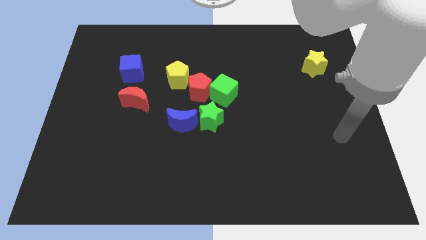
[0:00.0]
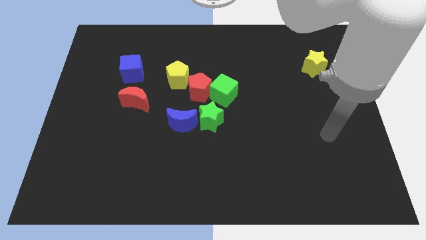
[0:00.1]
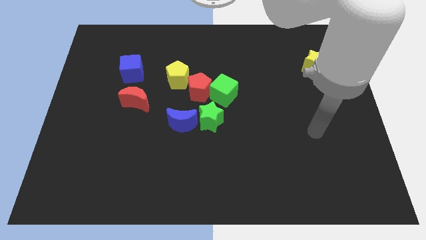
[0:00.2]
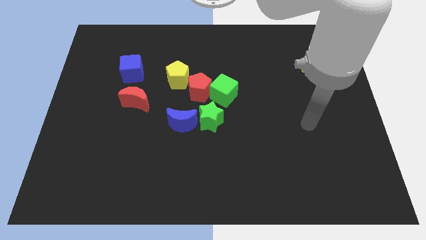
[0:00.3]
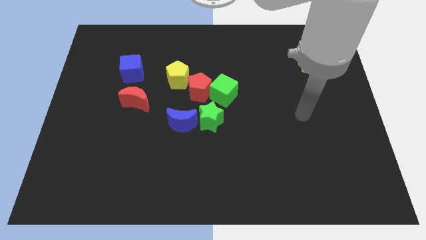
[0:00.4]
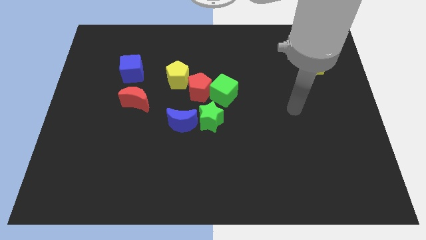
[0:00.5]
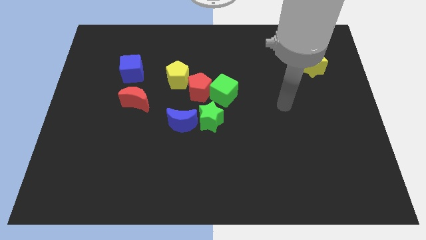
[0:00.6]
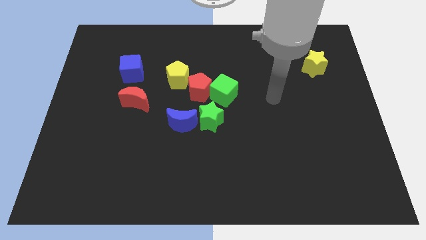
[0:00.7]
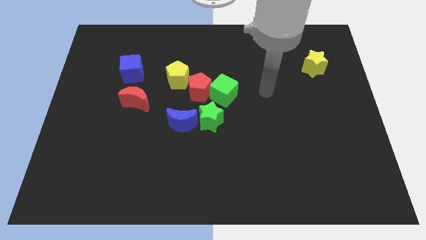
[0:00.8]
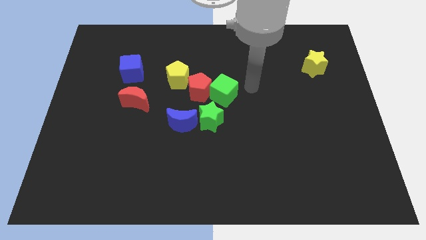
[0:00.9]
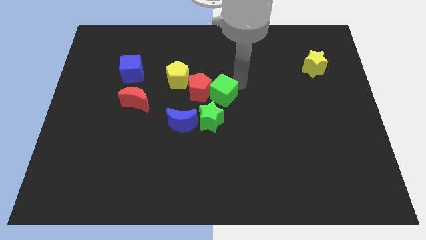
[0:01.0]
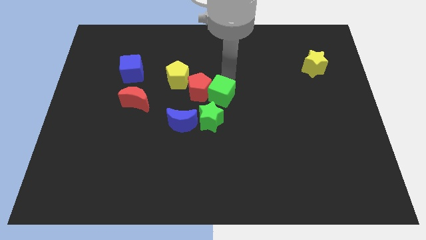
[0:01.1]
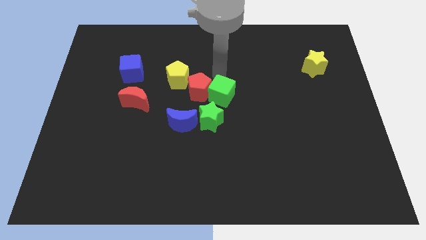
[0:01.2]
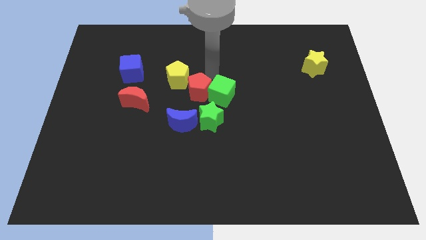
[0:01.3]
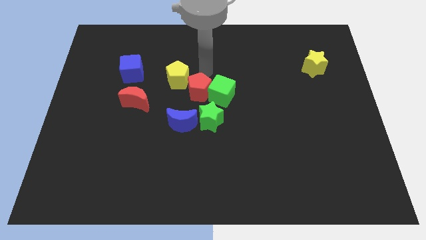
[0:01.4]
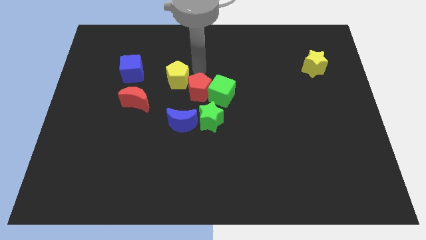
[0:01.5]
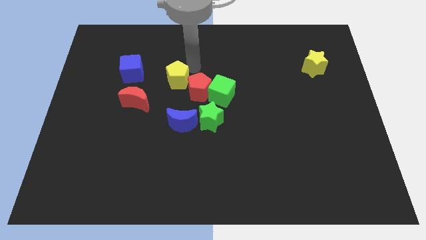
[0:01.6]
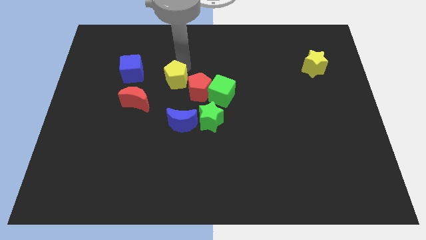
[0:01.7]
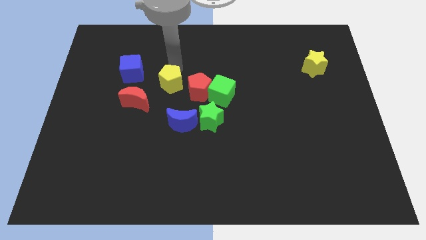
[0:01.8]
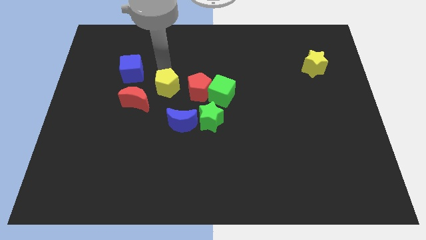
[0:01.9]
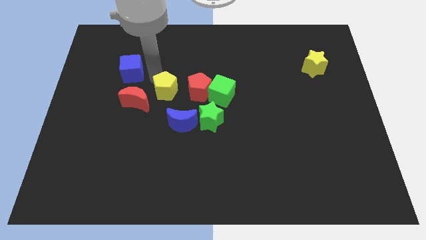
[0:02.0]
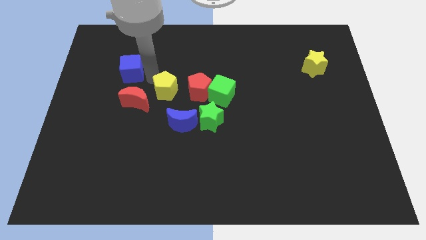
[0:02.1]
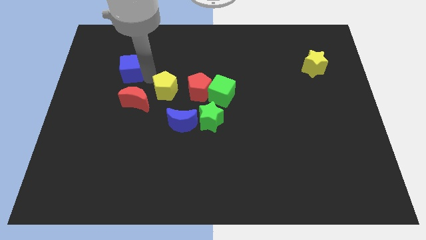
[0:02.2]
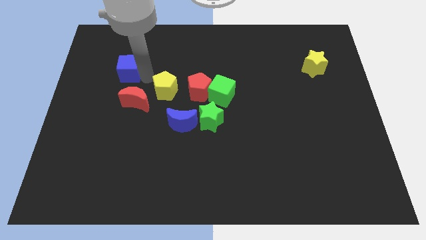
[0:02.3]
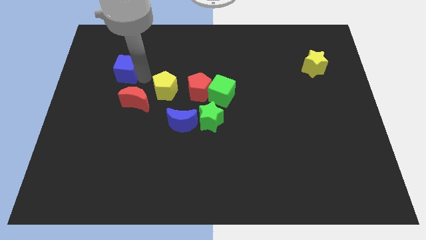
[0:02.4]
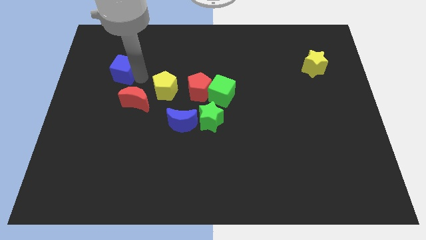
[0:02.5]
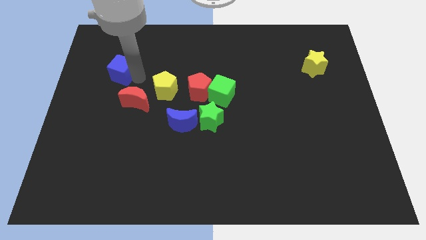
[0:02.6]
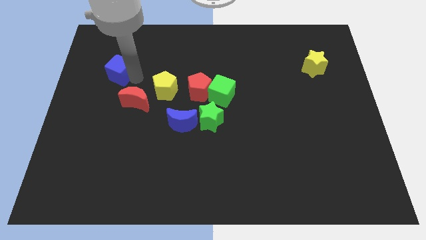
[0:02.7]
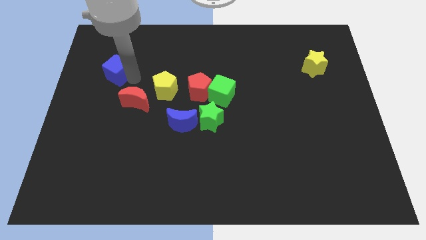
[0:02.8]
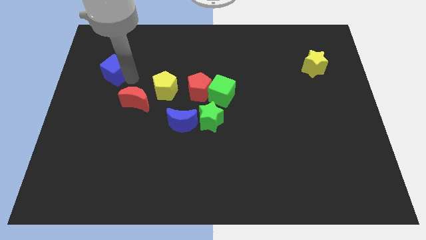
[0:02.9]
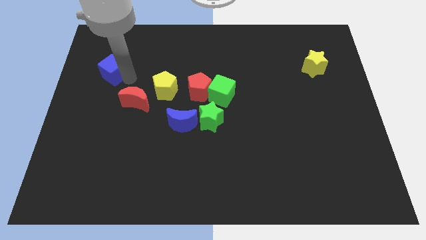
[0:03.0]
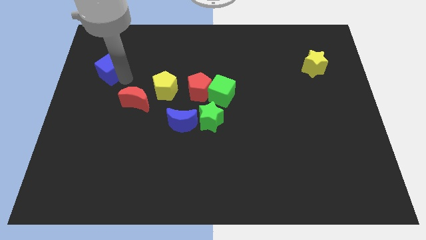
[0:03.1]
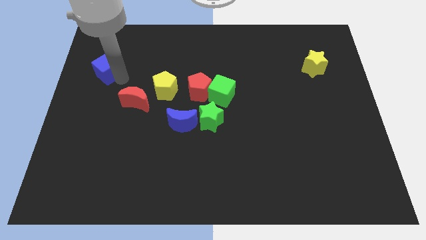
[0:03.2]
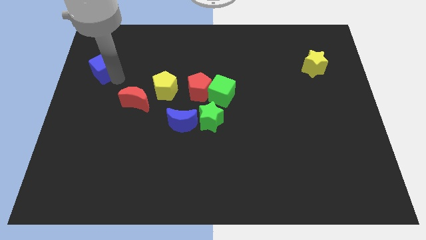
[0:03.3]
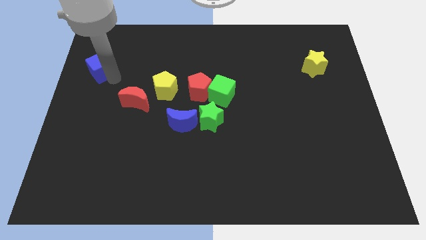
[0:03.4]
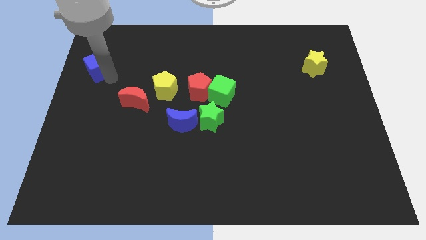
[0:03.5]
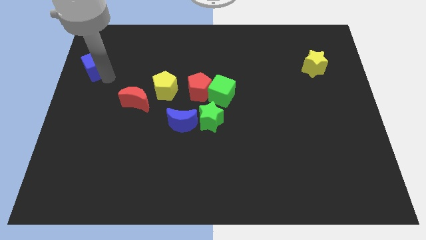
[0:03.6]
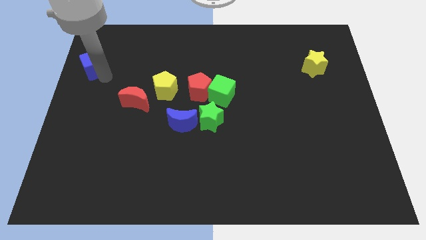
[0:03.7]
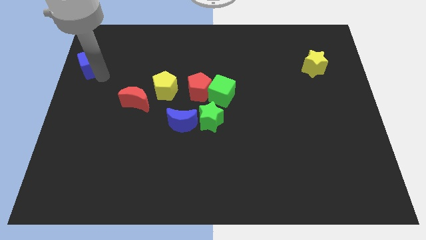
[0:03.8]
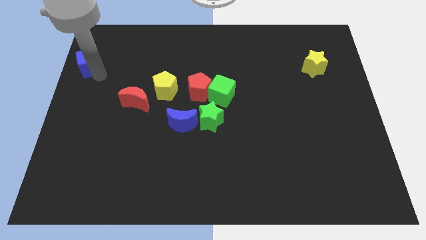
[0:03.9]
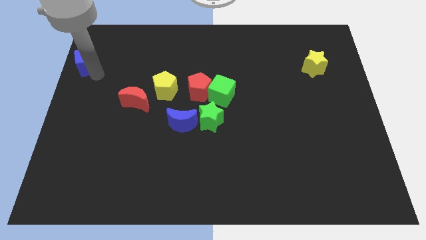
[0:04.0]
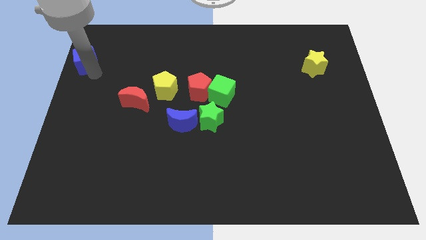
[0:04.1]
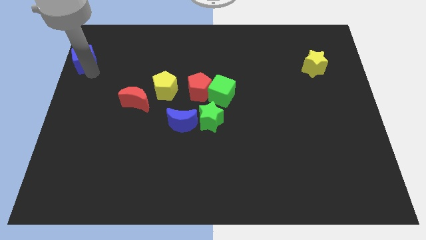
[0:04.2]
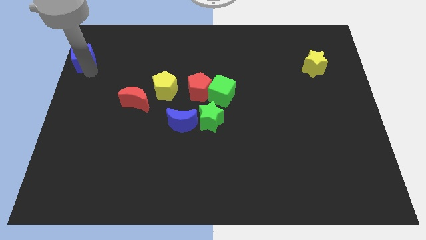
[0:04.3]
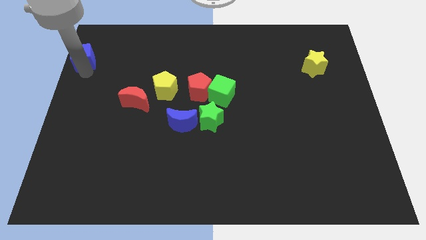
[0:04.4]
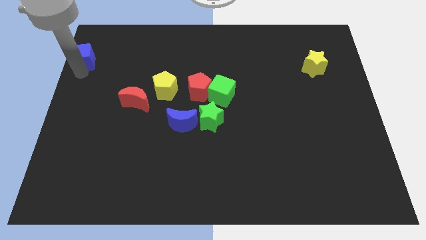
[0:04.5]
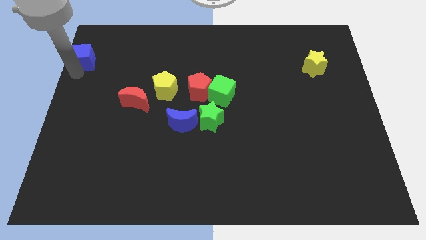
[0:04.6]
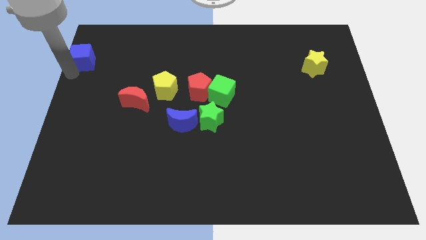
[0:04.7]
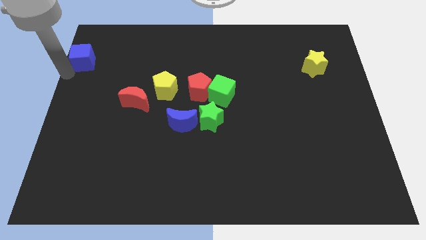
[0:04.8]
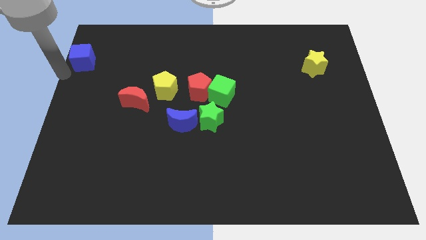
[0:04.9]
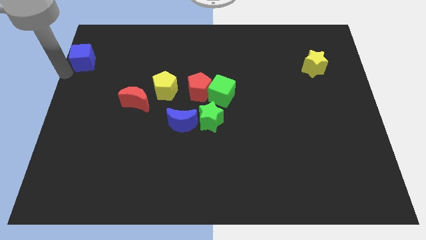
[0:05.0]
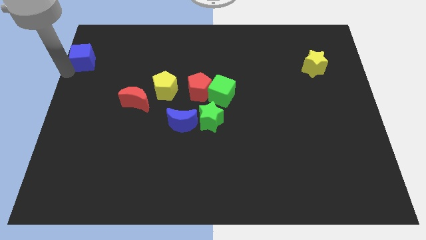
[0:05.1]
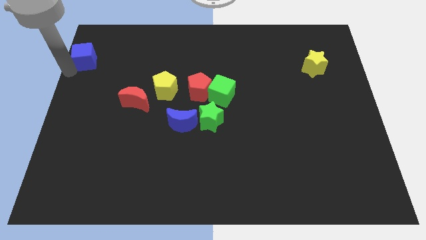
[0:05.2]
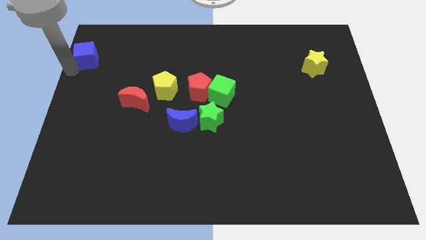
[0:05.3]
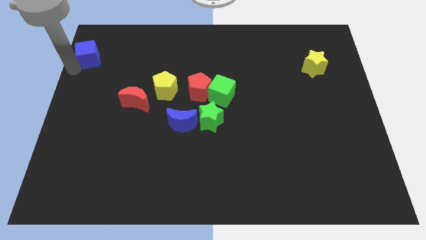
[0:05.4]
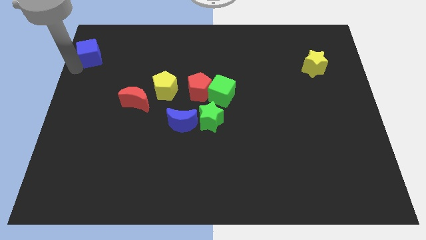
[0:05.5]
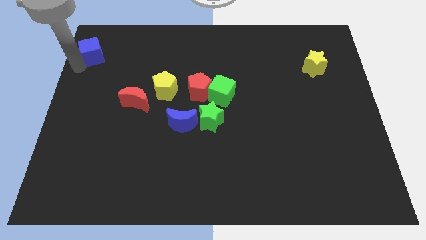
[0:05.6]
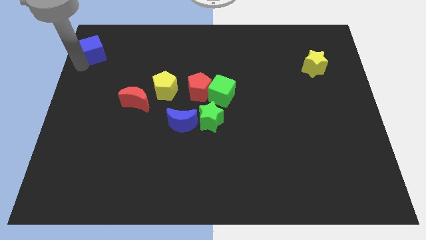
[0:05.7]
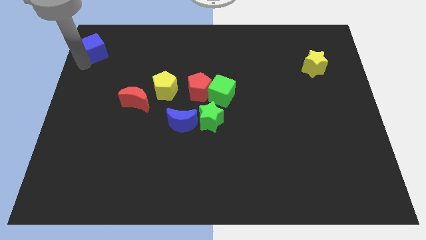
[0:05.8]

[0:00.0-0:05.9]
move the blue cube to the top left
